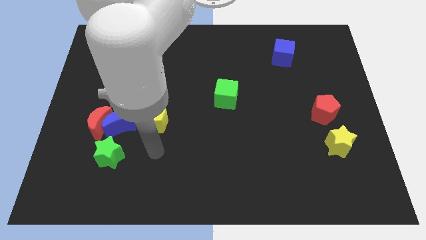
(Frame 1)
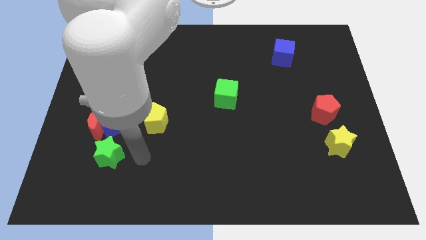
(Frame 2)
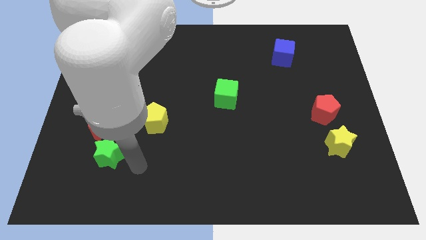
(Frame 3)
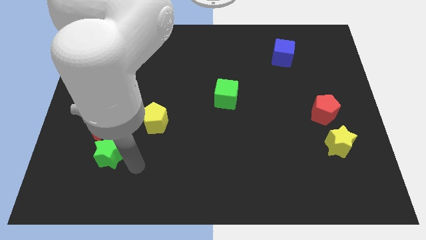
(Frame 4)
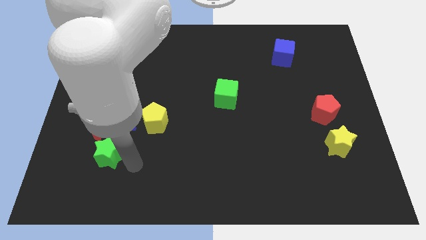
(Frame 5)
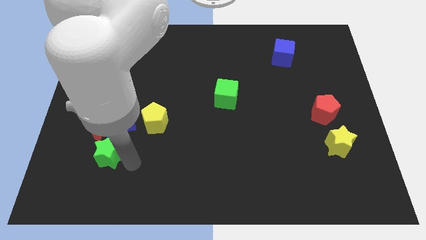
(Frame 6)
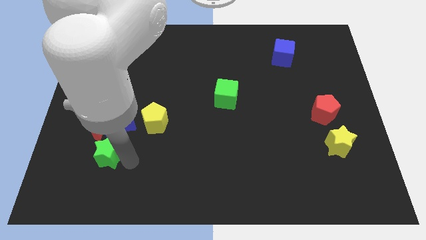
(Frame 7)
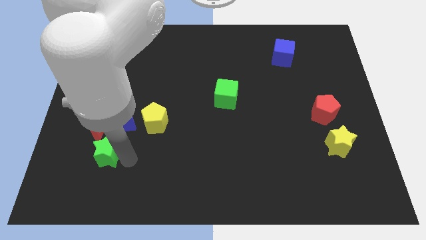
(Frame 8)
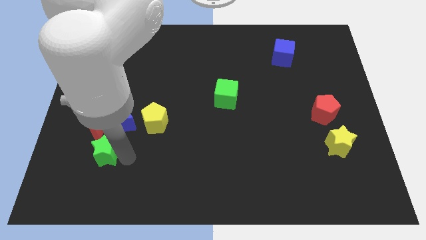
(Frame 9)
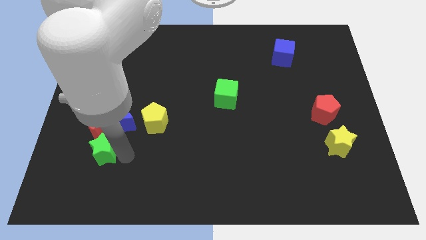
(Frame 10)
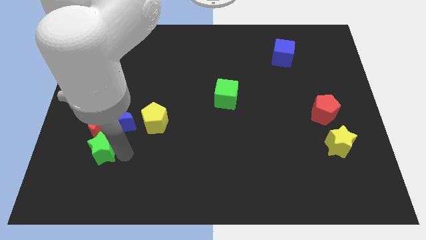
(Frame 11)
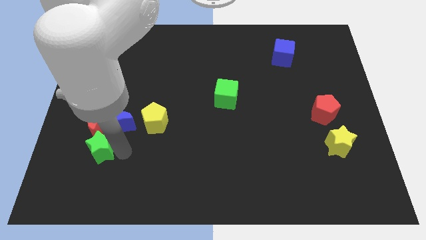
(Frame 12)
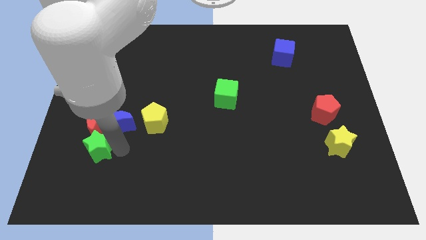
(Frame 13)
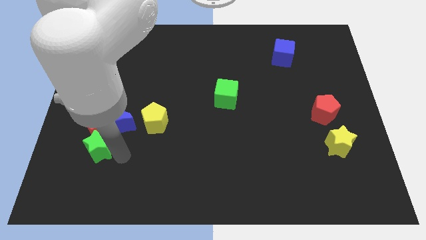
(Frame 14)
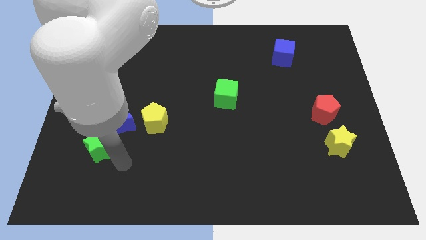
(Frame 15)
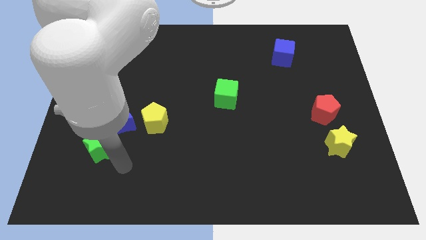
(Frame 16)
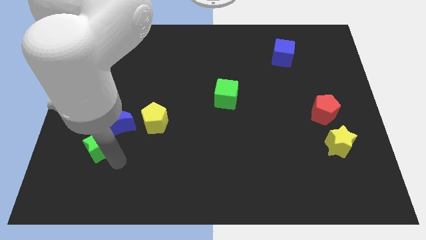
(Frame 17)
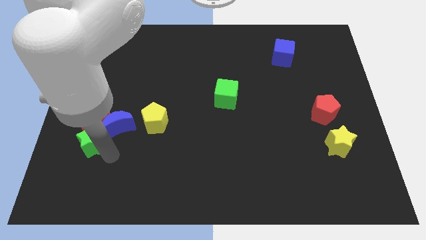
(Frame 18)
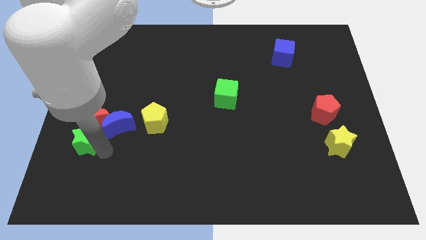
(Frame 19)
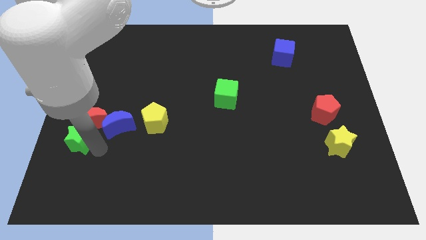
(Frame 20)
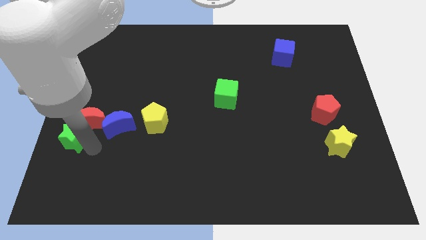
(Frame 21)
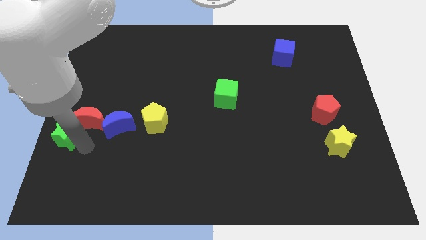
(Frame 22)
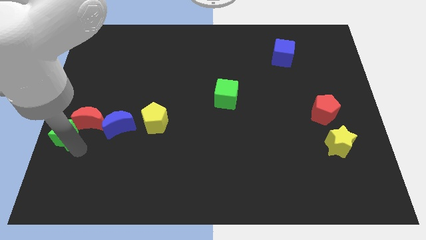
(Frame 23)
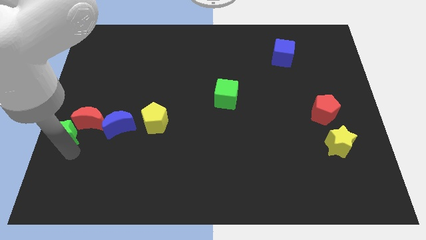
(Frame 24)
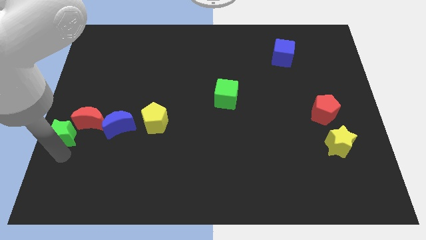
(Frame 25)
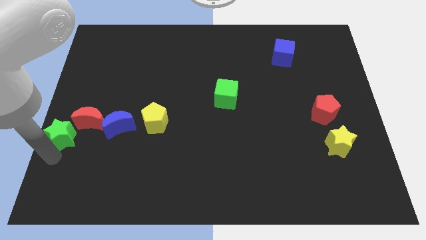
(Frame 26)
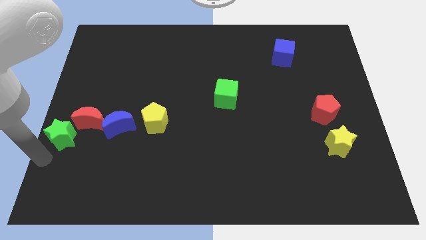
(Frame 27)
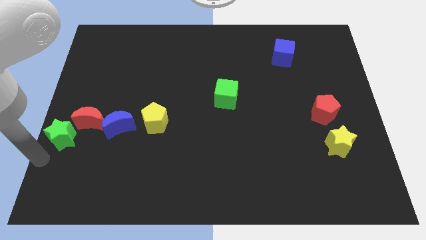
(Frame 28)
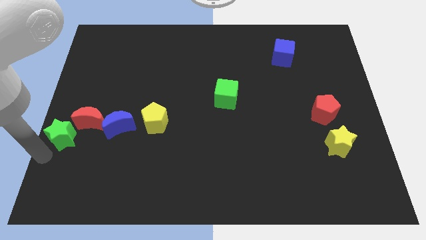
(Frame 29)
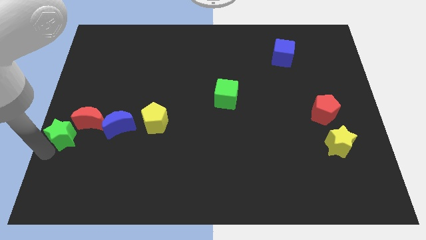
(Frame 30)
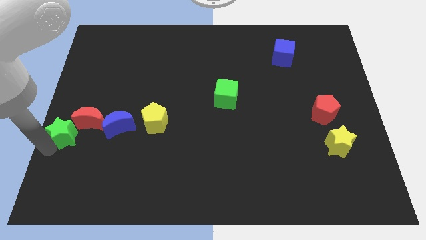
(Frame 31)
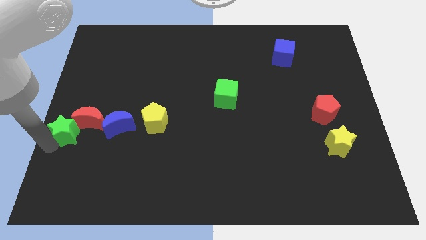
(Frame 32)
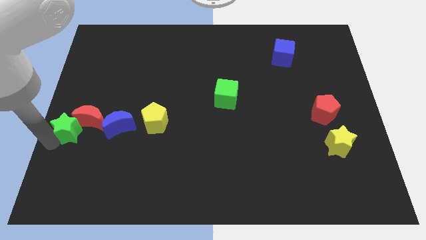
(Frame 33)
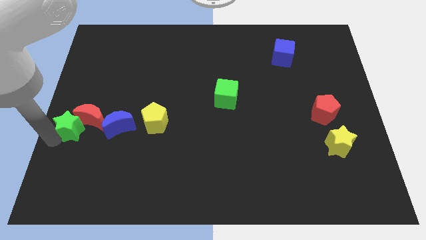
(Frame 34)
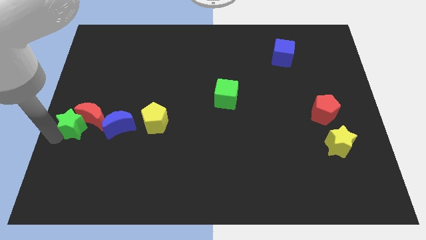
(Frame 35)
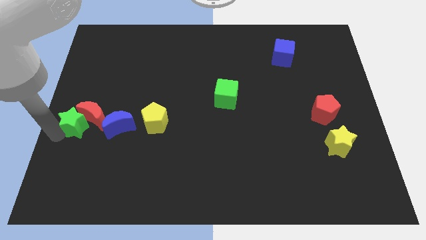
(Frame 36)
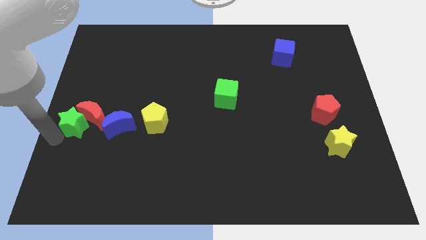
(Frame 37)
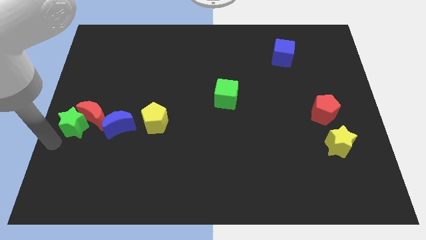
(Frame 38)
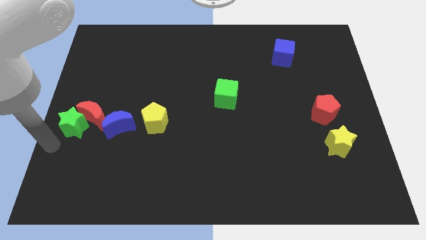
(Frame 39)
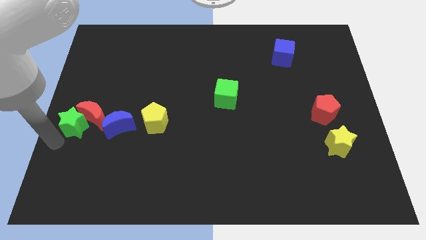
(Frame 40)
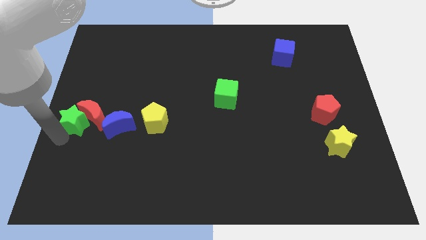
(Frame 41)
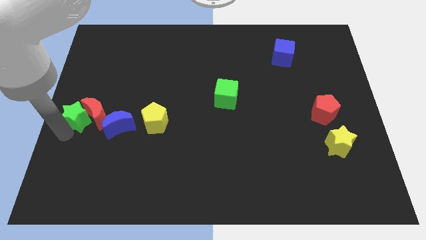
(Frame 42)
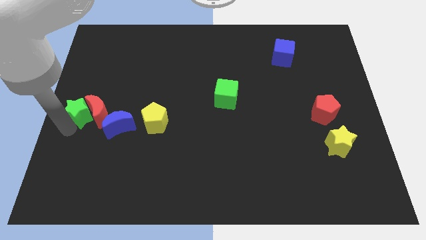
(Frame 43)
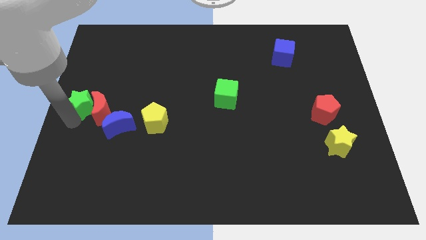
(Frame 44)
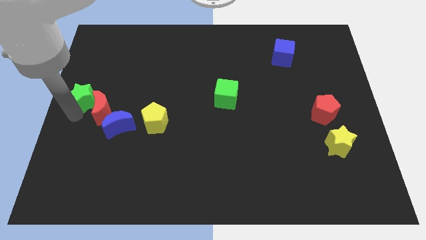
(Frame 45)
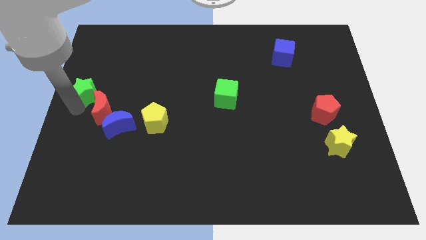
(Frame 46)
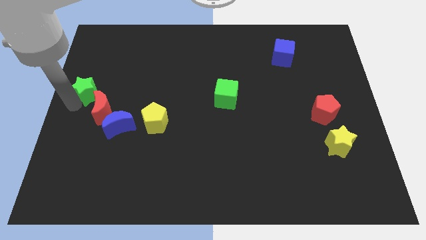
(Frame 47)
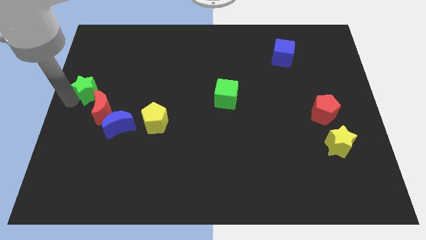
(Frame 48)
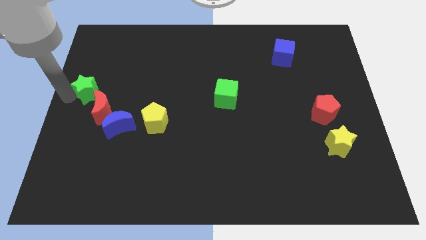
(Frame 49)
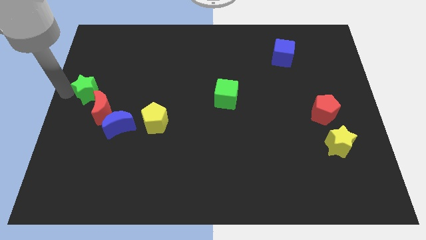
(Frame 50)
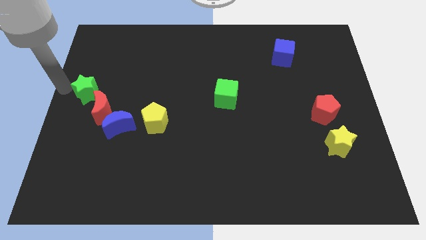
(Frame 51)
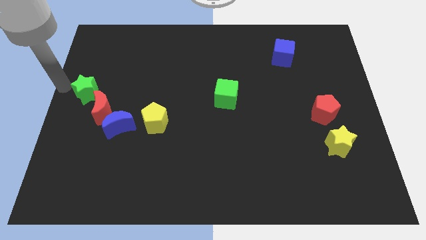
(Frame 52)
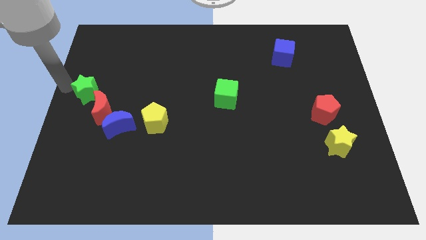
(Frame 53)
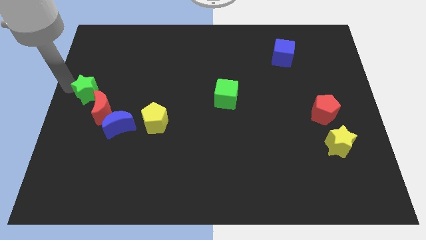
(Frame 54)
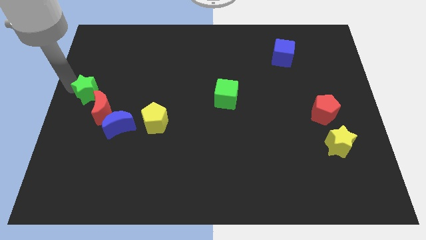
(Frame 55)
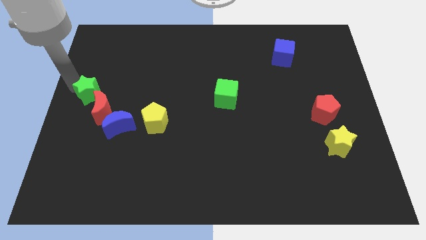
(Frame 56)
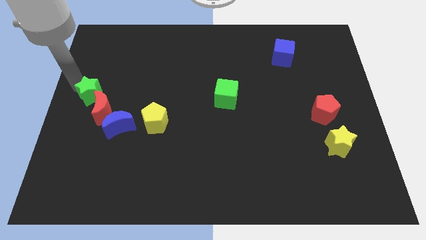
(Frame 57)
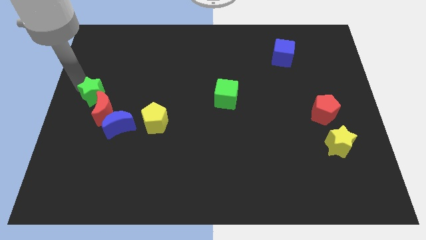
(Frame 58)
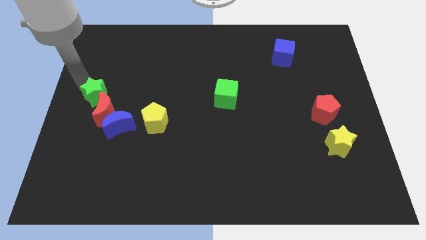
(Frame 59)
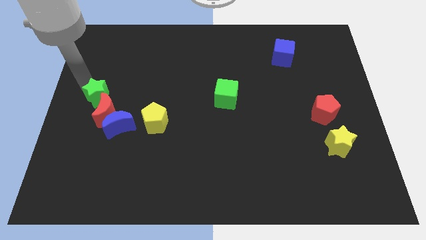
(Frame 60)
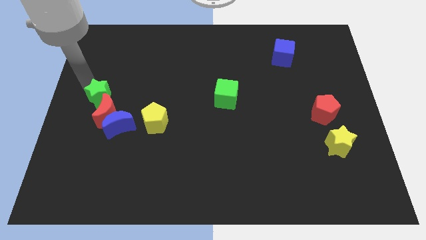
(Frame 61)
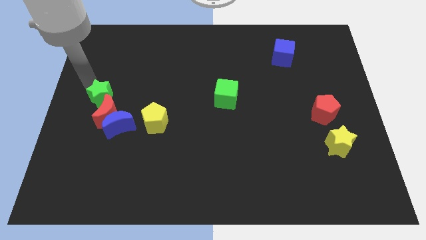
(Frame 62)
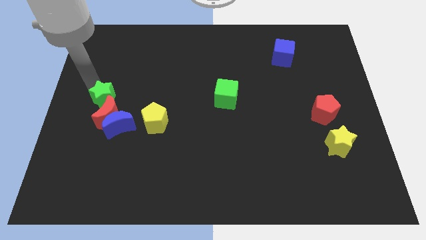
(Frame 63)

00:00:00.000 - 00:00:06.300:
move the green star to the top of the blue moon
